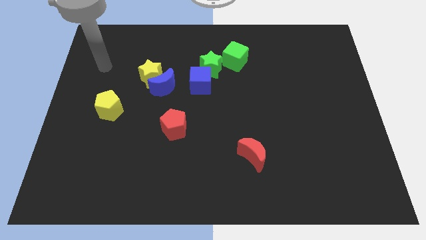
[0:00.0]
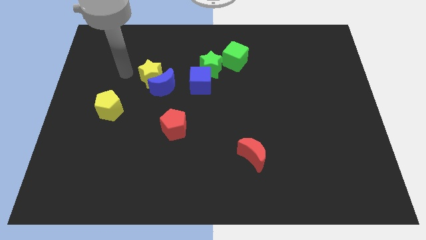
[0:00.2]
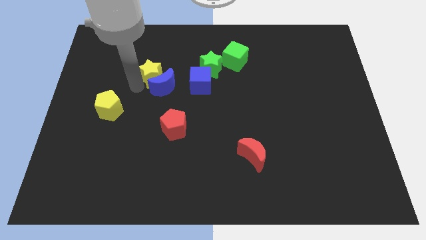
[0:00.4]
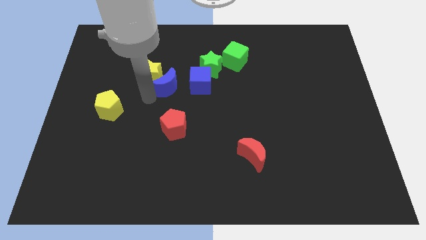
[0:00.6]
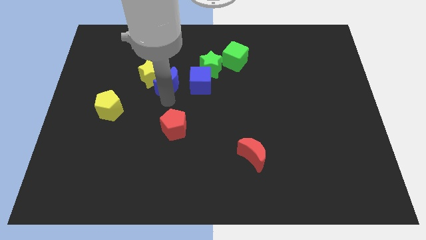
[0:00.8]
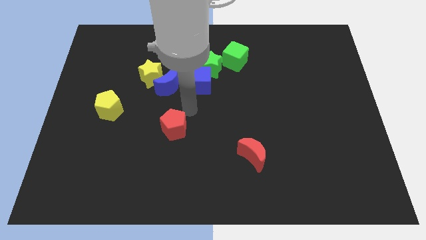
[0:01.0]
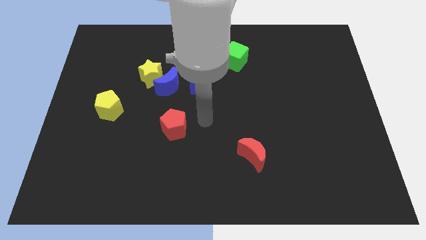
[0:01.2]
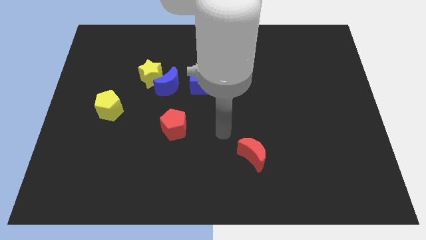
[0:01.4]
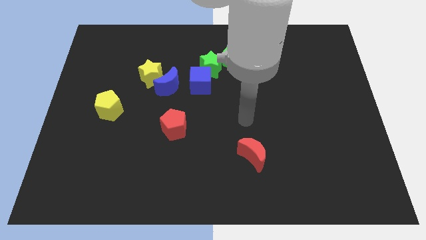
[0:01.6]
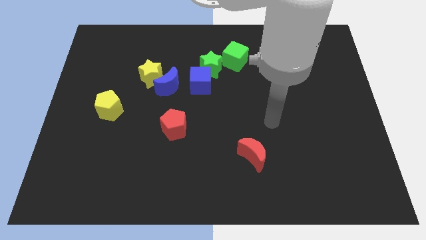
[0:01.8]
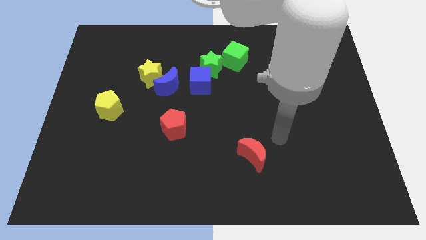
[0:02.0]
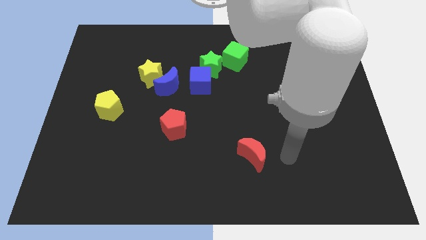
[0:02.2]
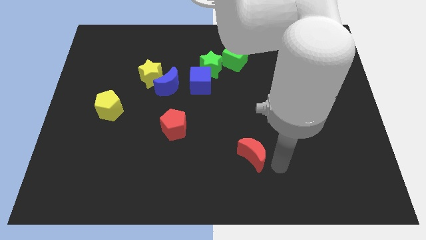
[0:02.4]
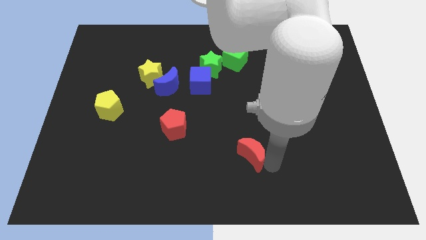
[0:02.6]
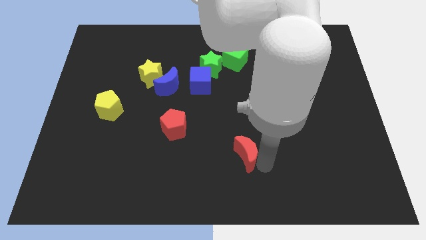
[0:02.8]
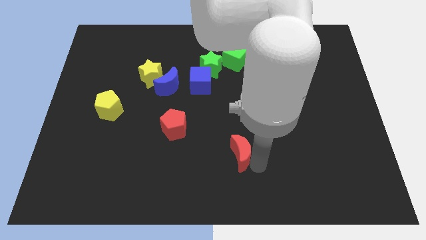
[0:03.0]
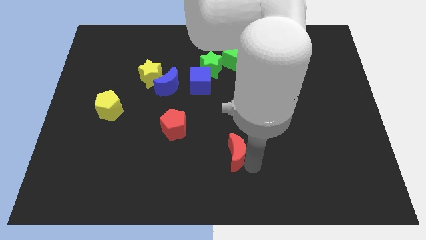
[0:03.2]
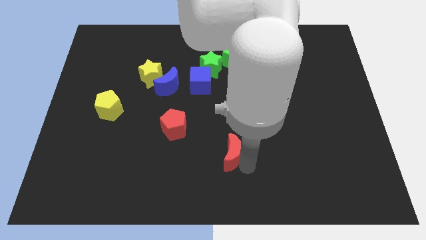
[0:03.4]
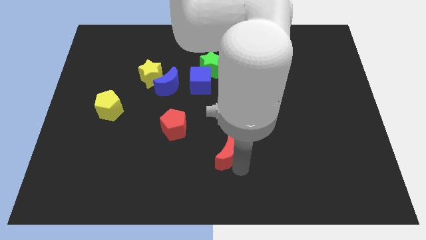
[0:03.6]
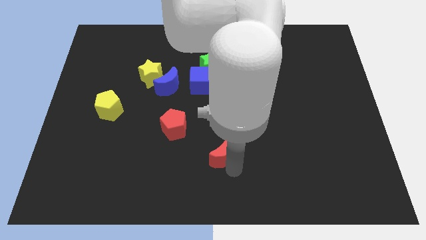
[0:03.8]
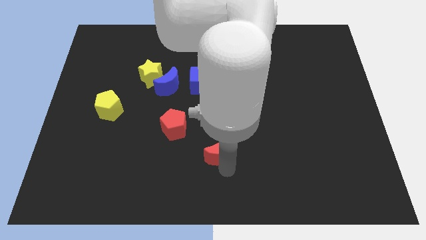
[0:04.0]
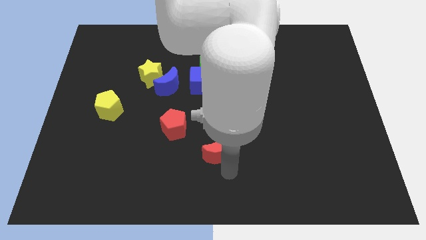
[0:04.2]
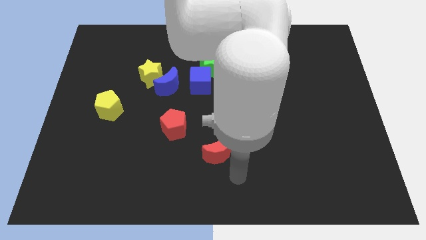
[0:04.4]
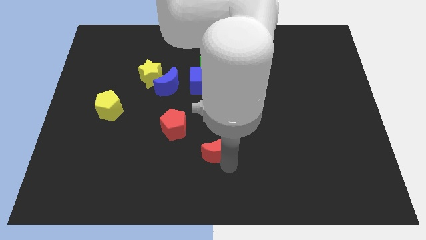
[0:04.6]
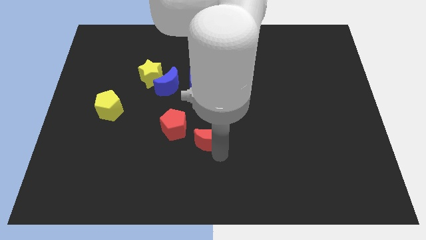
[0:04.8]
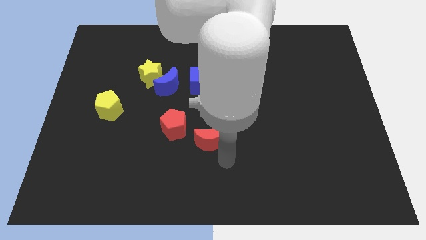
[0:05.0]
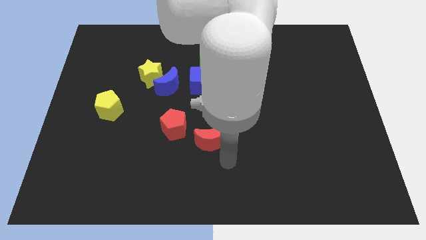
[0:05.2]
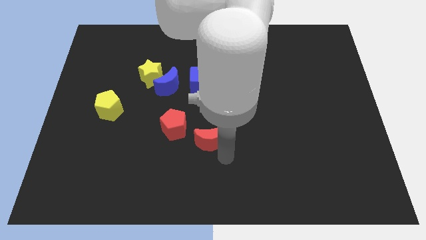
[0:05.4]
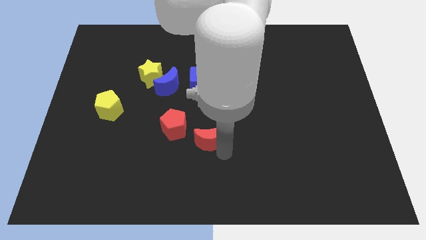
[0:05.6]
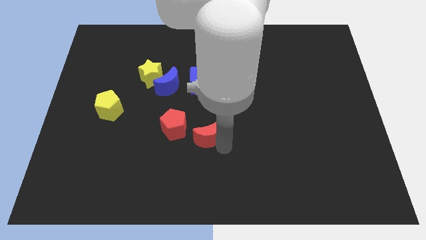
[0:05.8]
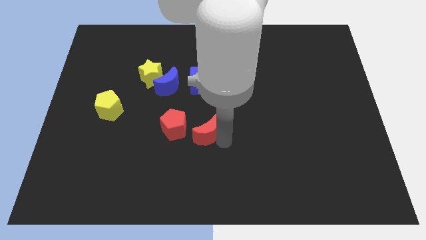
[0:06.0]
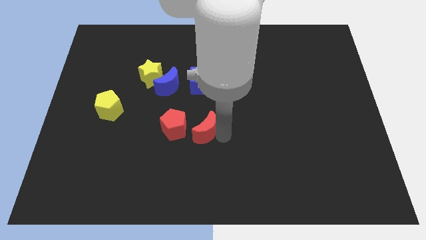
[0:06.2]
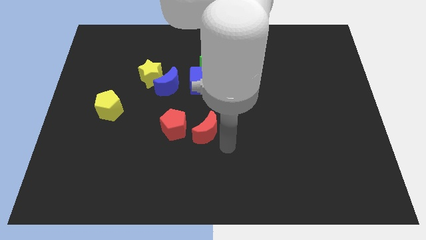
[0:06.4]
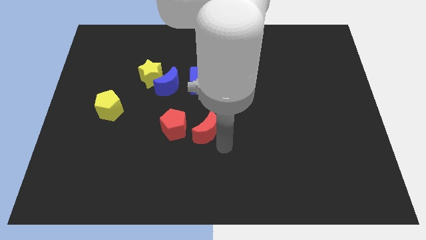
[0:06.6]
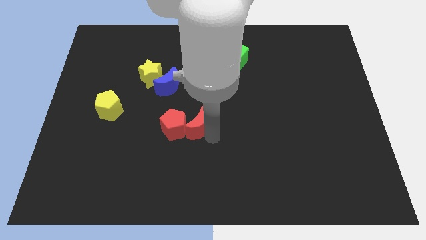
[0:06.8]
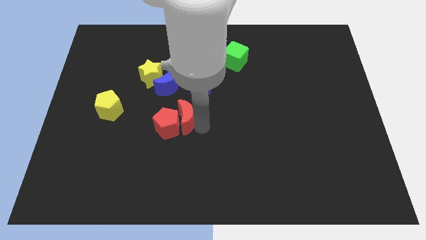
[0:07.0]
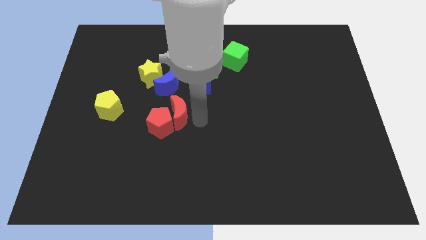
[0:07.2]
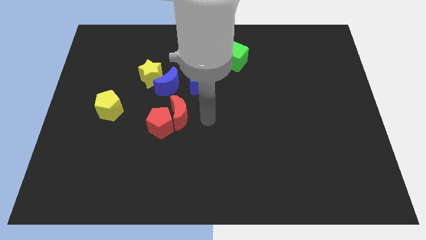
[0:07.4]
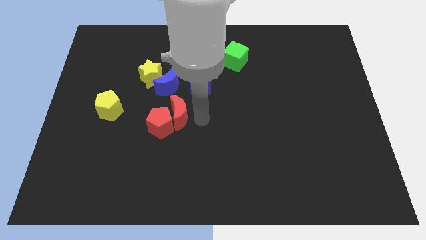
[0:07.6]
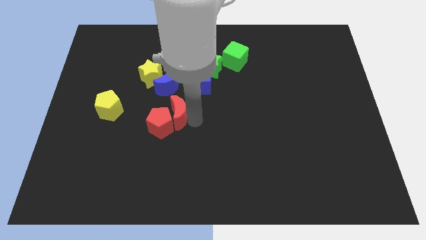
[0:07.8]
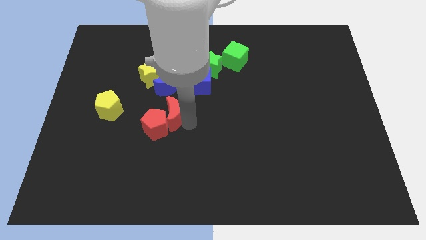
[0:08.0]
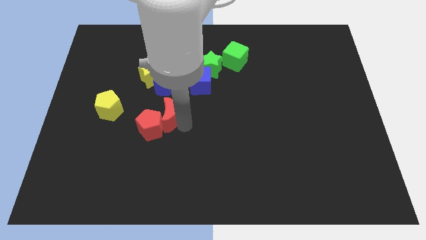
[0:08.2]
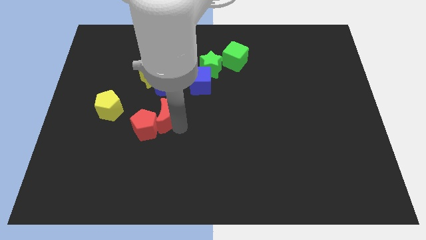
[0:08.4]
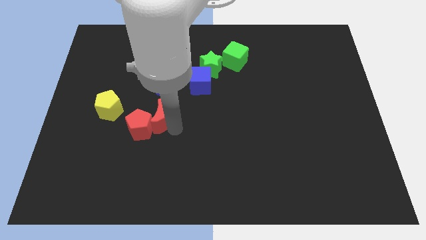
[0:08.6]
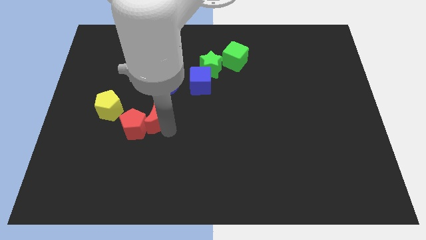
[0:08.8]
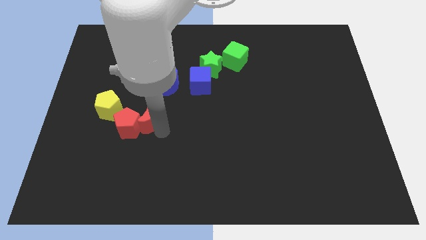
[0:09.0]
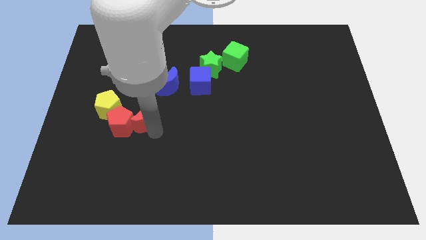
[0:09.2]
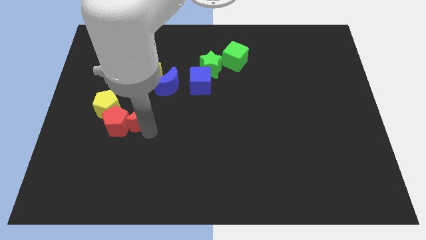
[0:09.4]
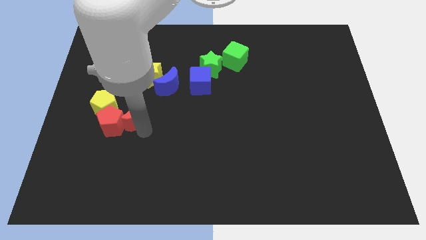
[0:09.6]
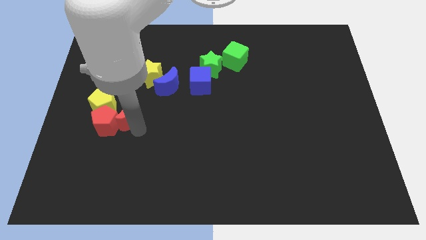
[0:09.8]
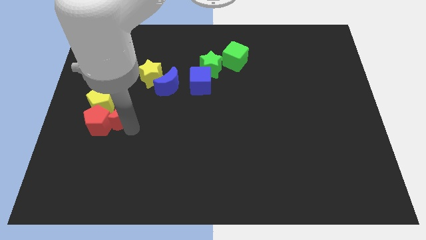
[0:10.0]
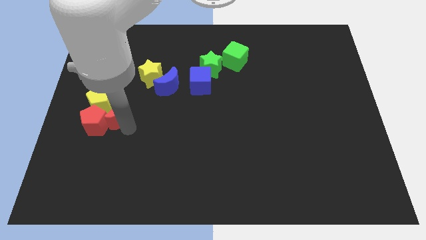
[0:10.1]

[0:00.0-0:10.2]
slide the red moon close to the yellow pentagon

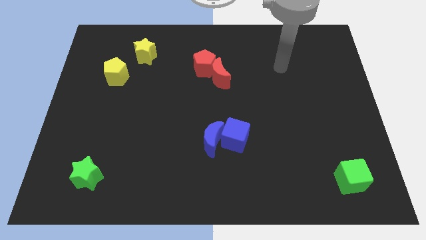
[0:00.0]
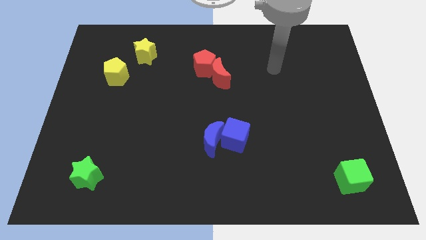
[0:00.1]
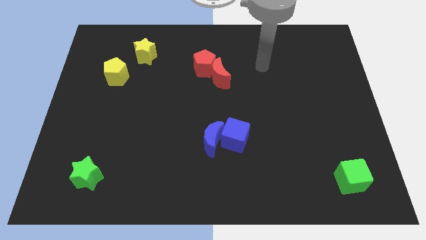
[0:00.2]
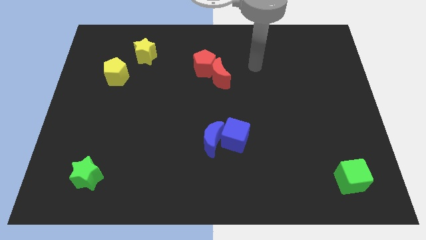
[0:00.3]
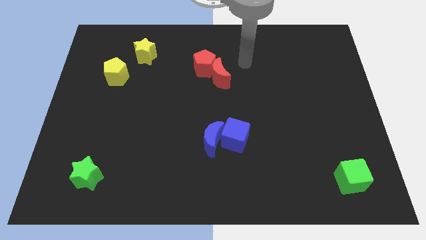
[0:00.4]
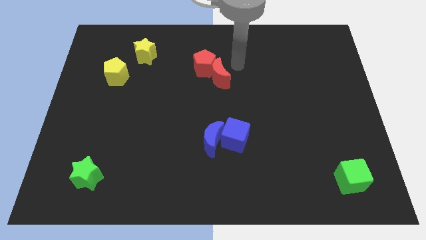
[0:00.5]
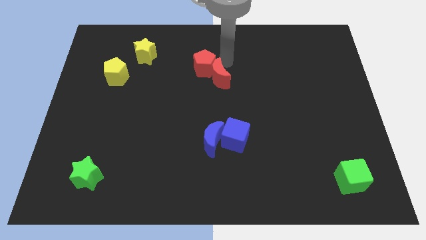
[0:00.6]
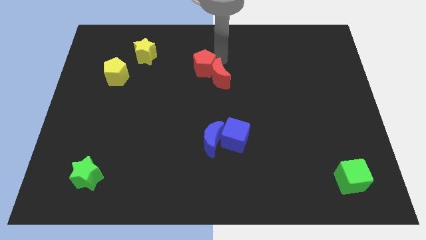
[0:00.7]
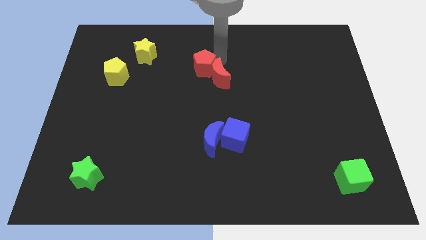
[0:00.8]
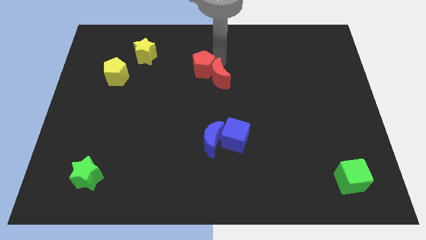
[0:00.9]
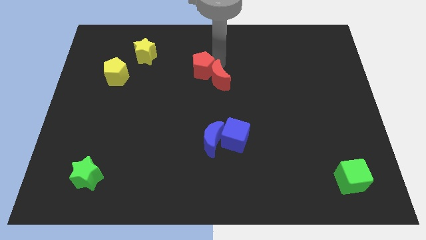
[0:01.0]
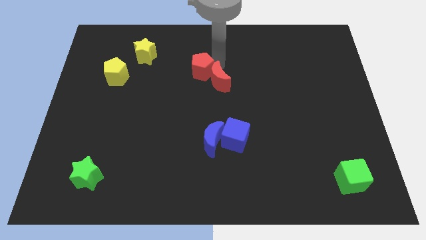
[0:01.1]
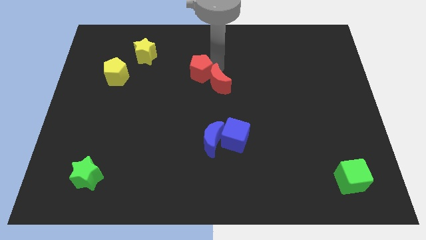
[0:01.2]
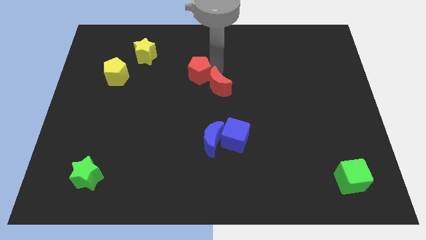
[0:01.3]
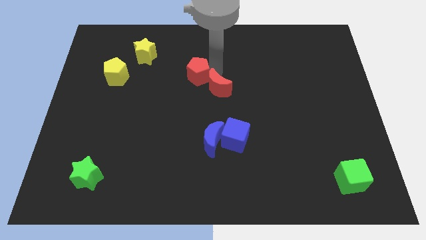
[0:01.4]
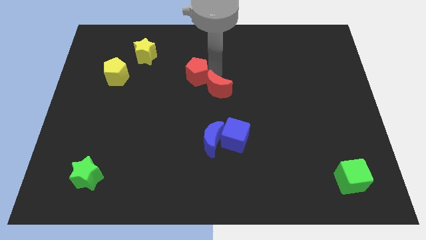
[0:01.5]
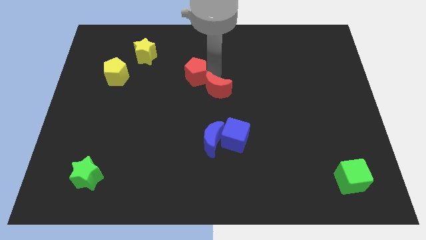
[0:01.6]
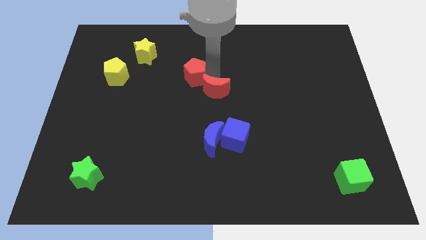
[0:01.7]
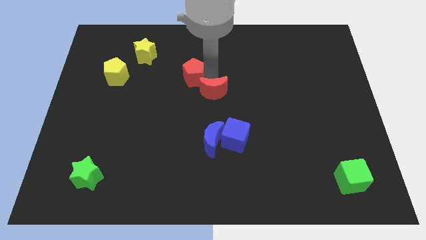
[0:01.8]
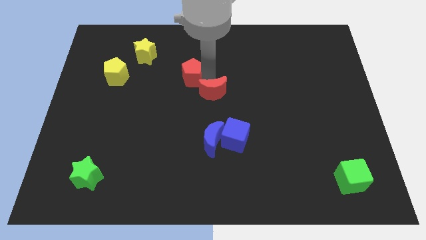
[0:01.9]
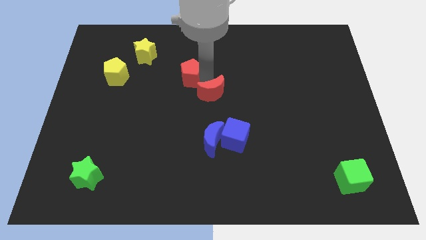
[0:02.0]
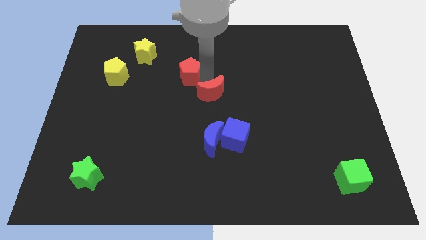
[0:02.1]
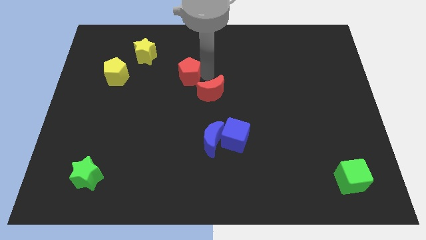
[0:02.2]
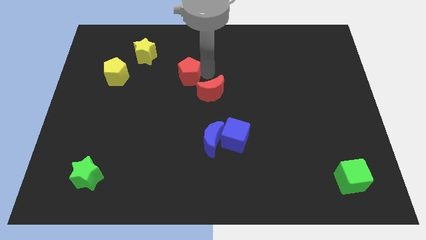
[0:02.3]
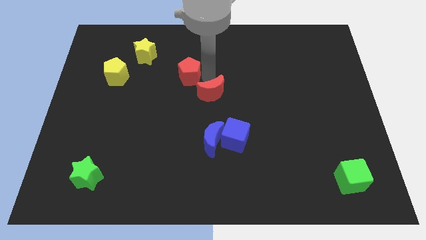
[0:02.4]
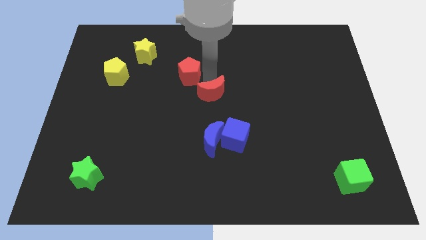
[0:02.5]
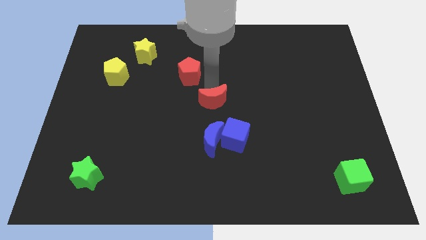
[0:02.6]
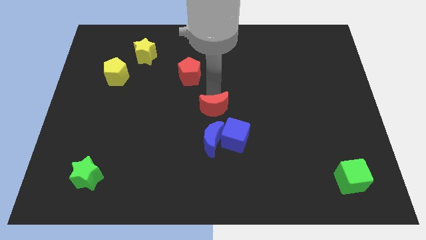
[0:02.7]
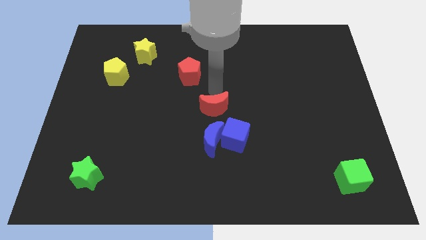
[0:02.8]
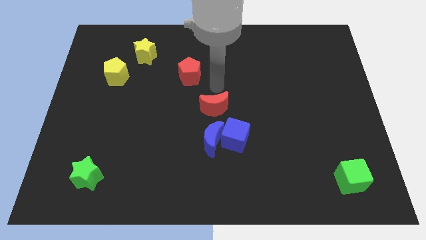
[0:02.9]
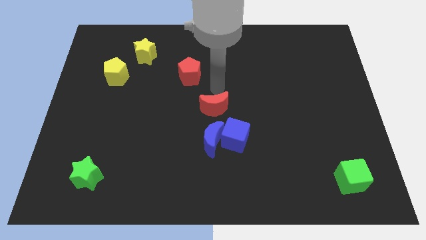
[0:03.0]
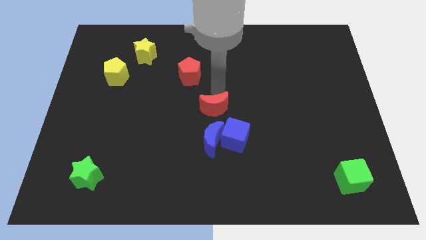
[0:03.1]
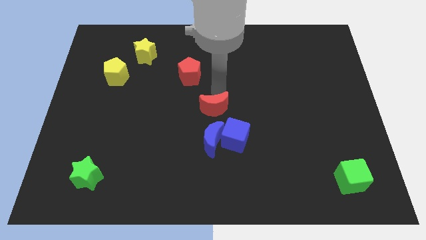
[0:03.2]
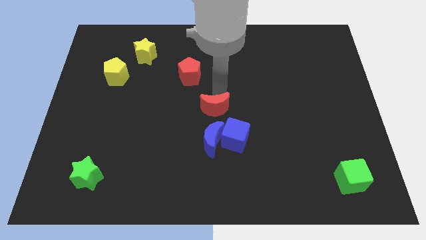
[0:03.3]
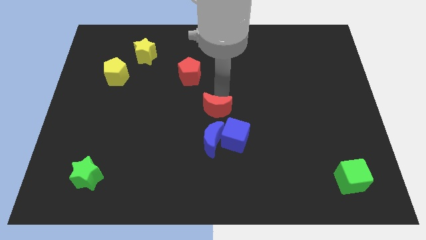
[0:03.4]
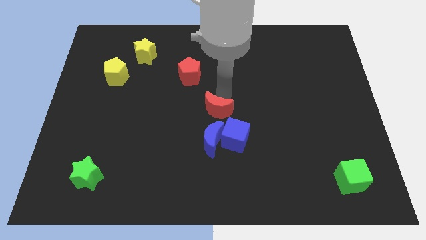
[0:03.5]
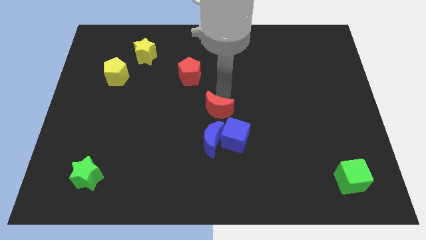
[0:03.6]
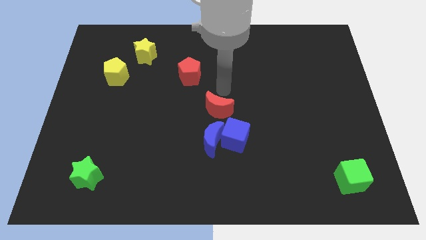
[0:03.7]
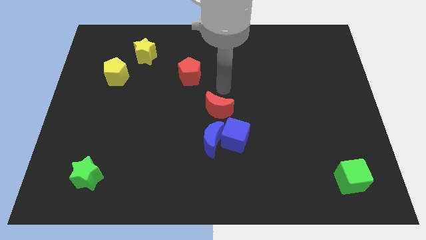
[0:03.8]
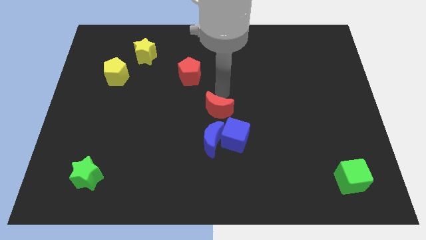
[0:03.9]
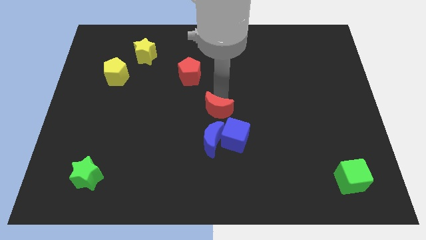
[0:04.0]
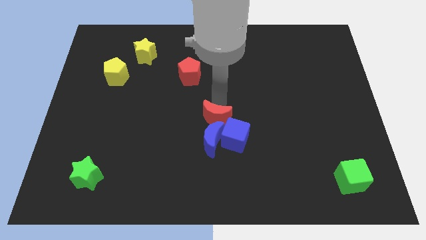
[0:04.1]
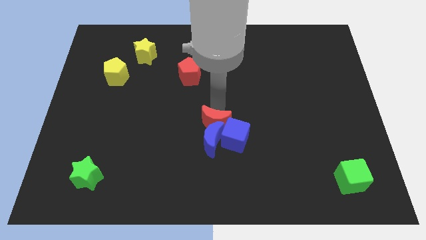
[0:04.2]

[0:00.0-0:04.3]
move the red moon towards the blue moon
